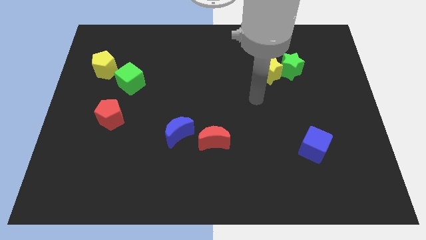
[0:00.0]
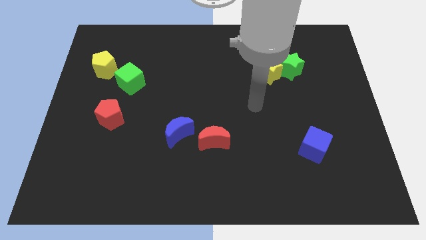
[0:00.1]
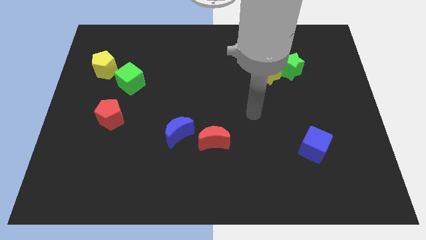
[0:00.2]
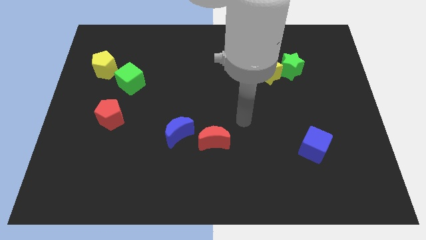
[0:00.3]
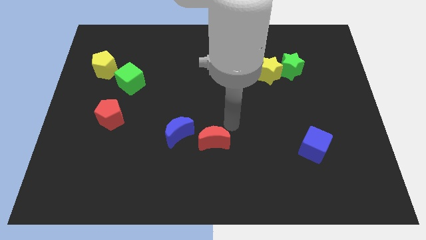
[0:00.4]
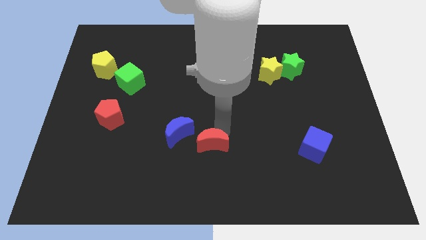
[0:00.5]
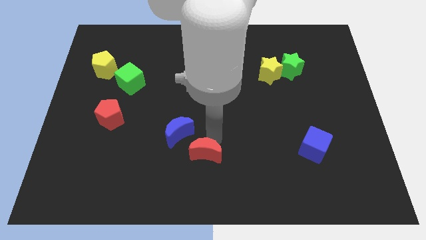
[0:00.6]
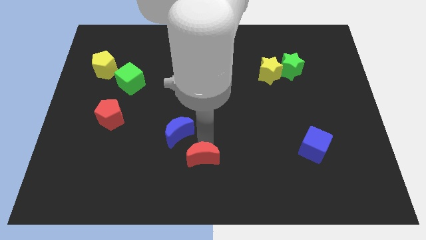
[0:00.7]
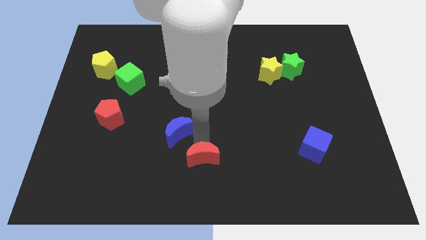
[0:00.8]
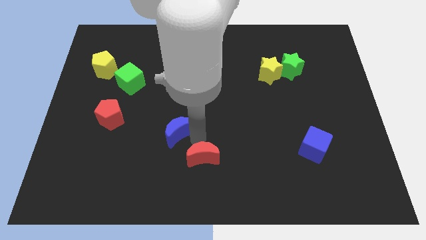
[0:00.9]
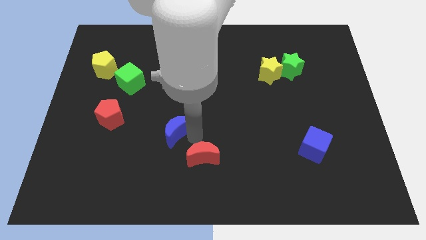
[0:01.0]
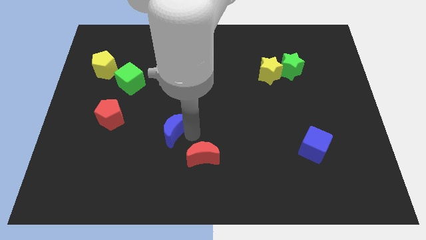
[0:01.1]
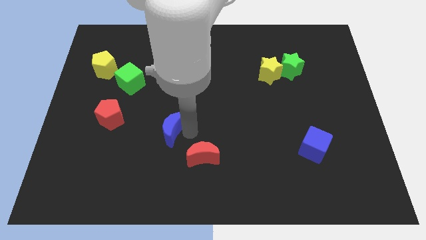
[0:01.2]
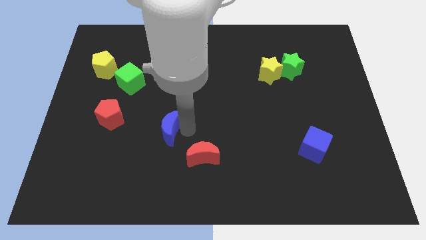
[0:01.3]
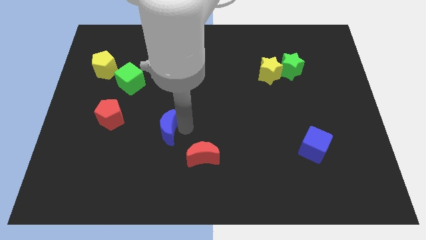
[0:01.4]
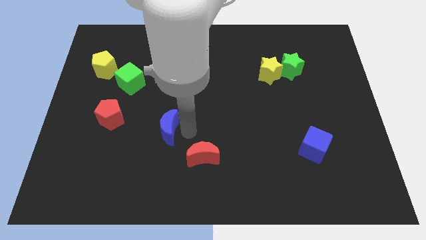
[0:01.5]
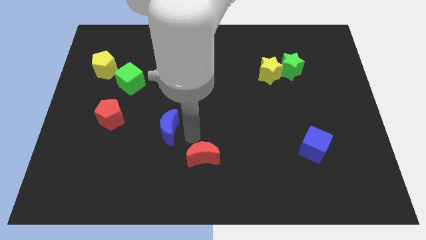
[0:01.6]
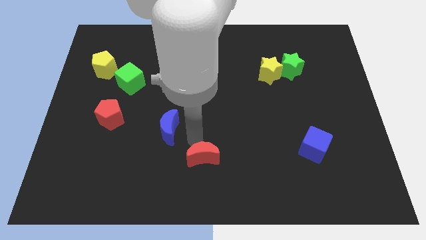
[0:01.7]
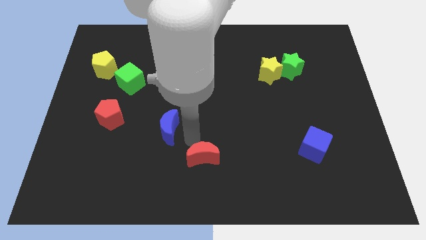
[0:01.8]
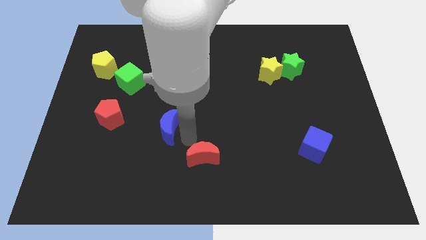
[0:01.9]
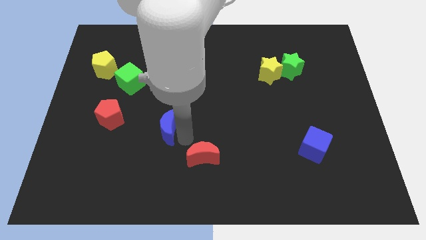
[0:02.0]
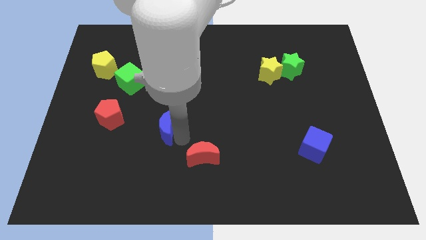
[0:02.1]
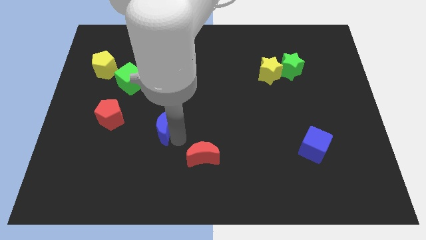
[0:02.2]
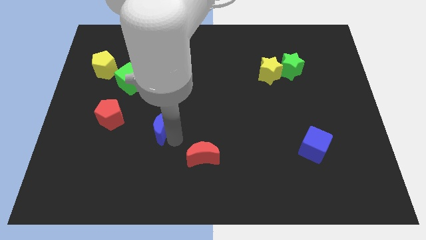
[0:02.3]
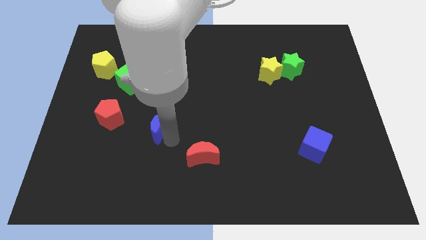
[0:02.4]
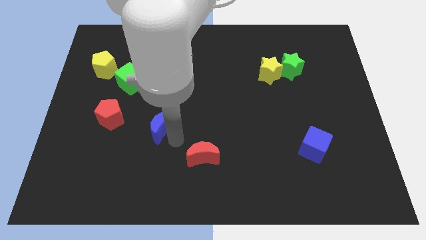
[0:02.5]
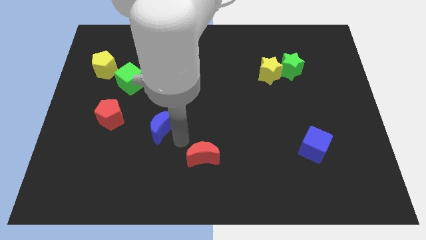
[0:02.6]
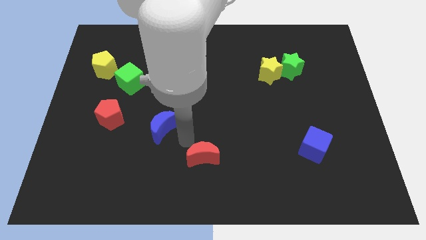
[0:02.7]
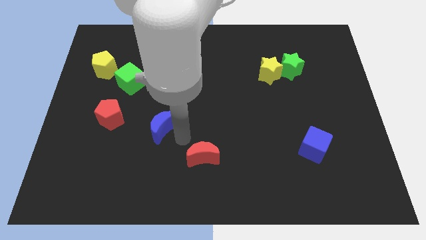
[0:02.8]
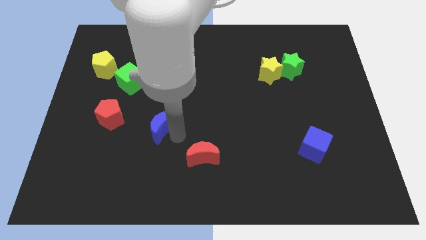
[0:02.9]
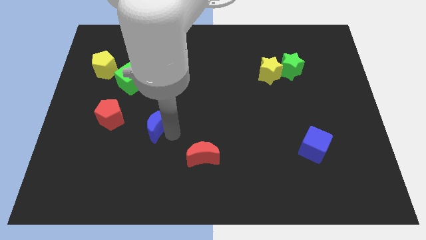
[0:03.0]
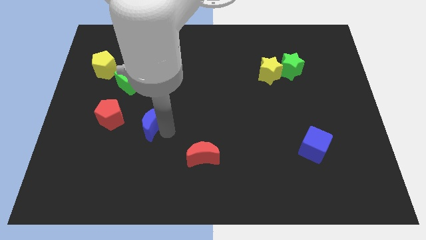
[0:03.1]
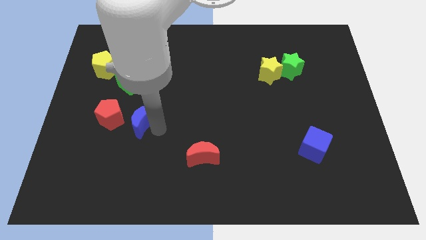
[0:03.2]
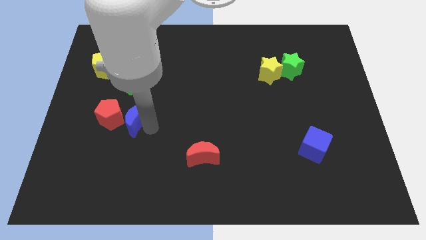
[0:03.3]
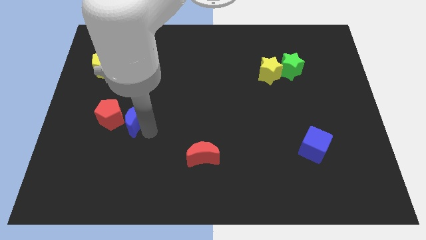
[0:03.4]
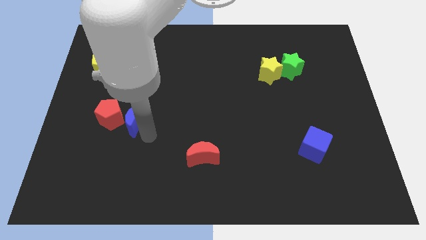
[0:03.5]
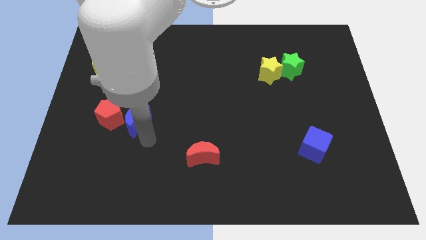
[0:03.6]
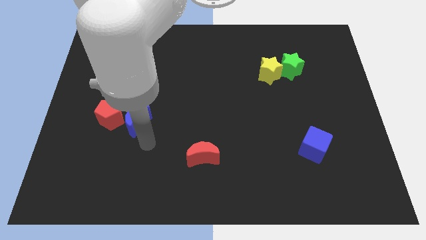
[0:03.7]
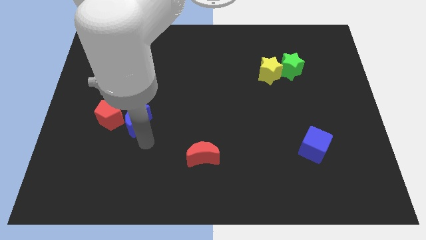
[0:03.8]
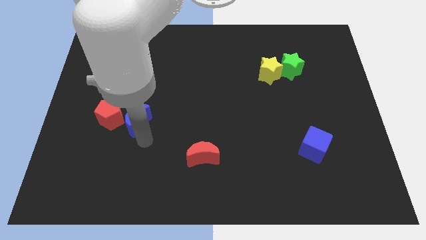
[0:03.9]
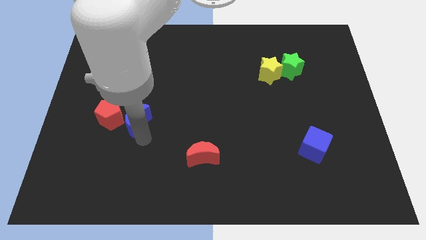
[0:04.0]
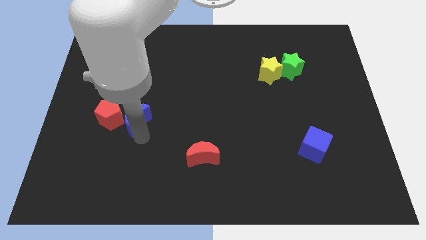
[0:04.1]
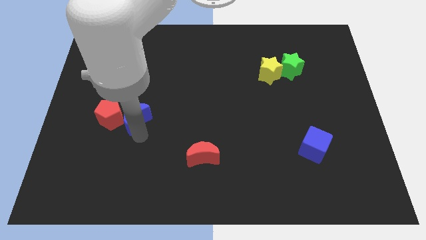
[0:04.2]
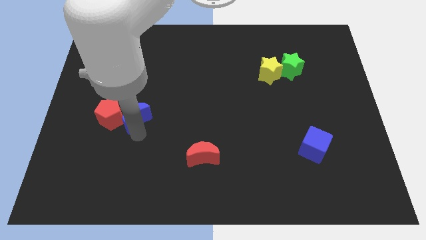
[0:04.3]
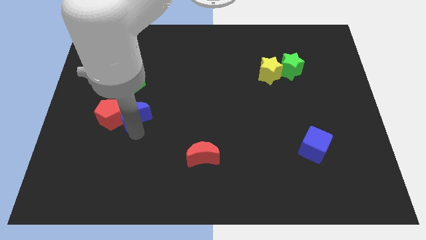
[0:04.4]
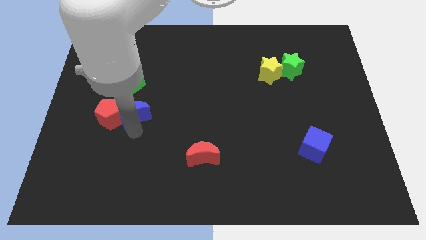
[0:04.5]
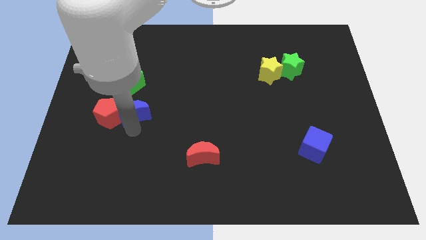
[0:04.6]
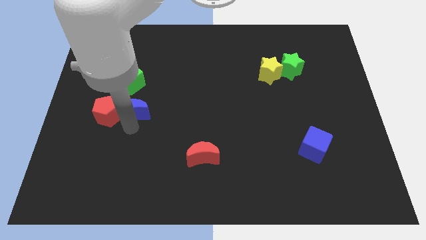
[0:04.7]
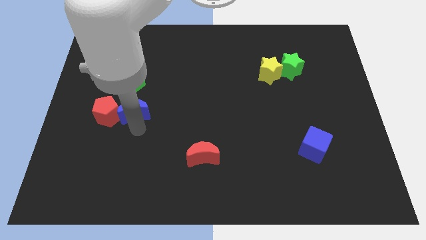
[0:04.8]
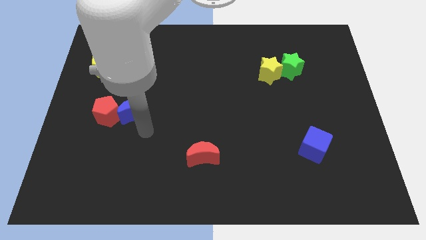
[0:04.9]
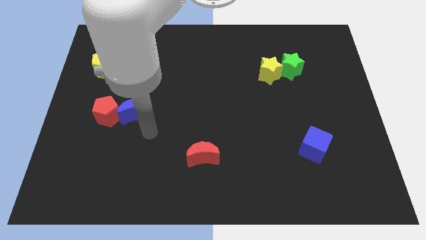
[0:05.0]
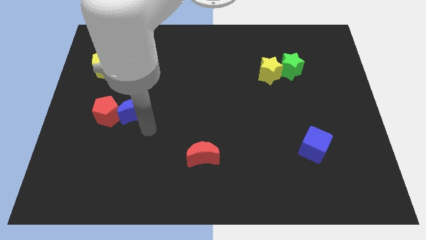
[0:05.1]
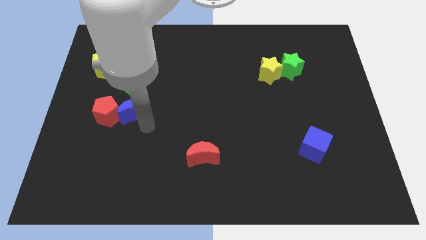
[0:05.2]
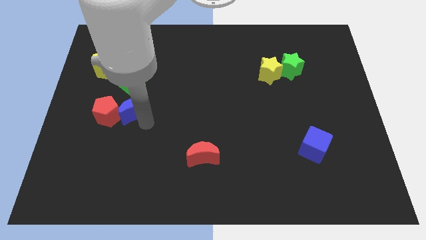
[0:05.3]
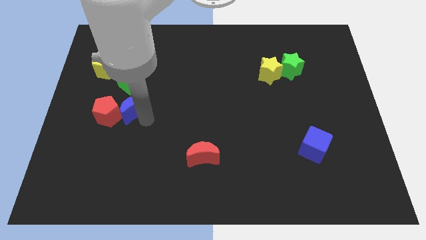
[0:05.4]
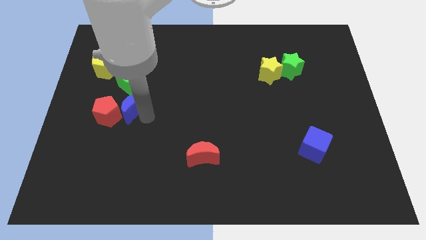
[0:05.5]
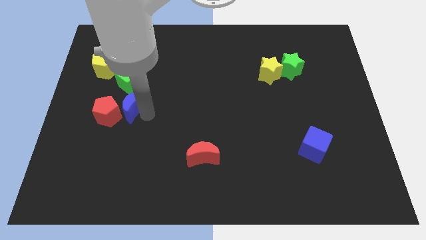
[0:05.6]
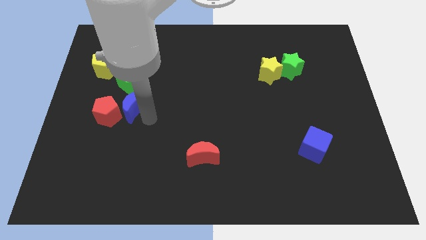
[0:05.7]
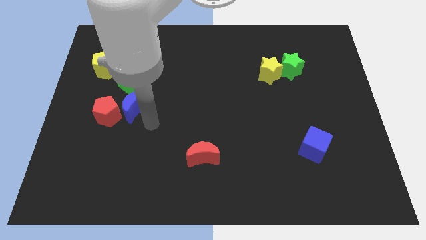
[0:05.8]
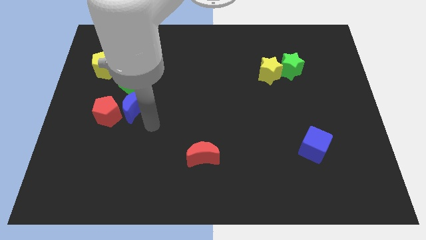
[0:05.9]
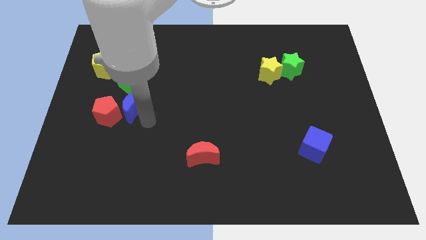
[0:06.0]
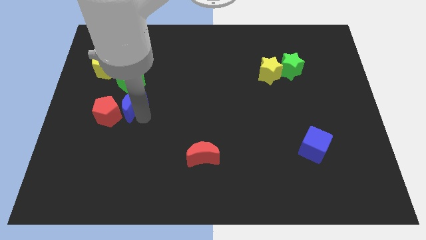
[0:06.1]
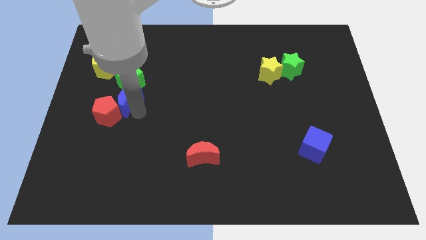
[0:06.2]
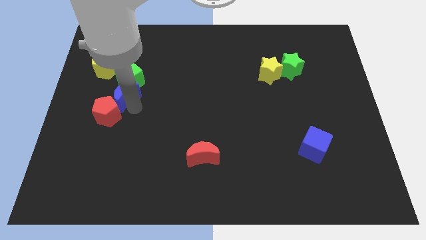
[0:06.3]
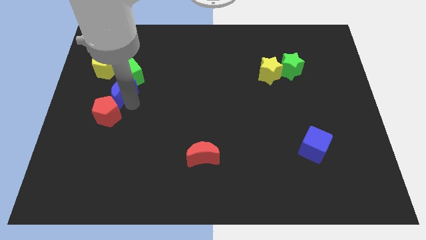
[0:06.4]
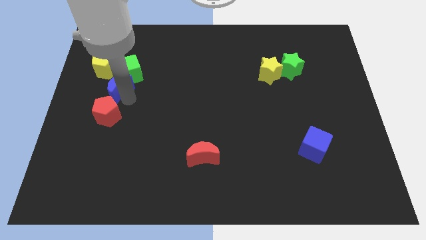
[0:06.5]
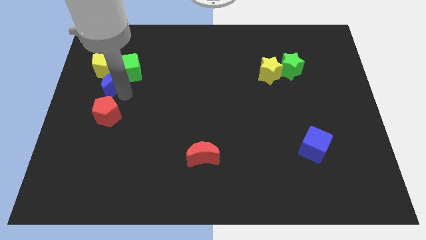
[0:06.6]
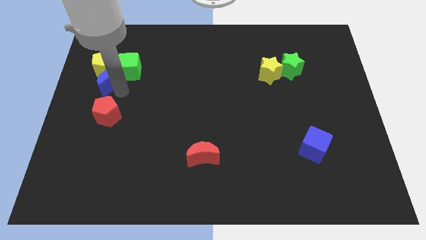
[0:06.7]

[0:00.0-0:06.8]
put the blue moon to the yellow pentagon
